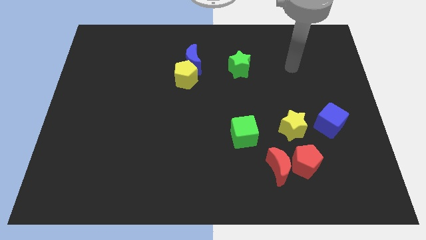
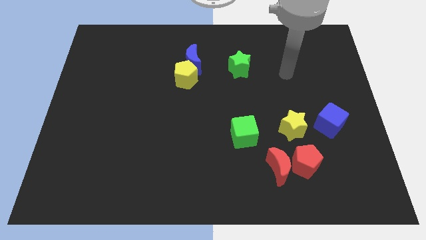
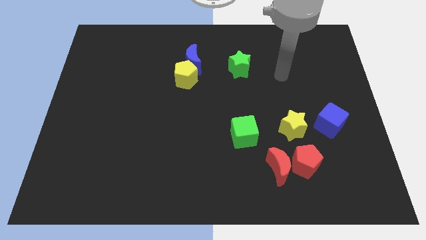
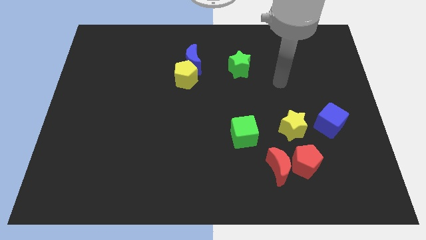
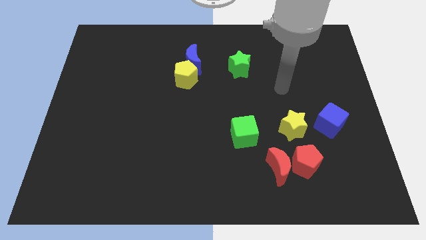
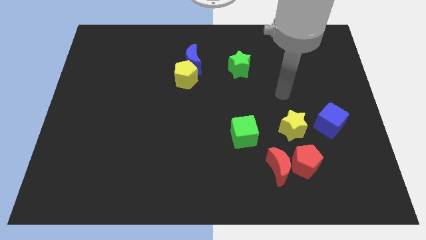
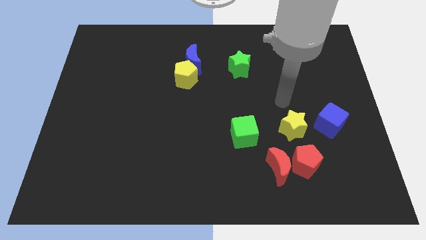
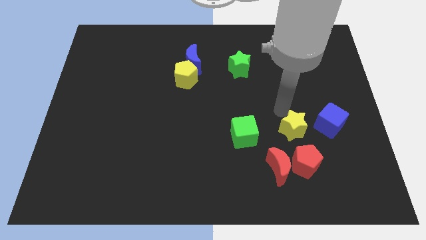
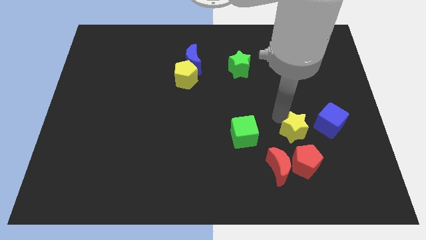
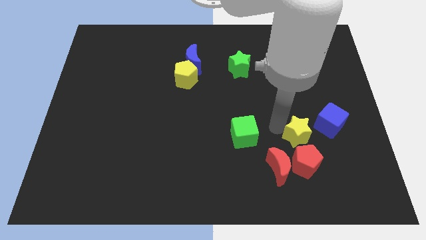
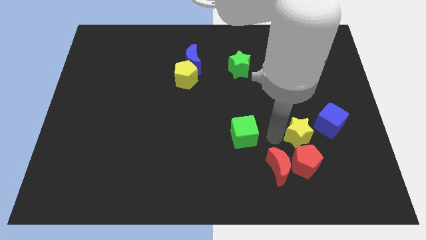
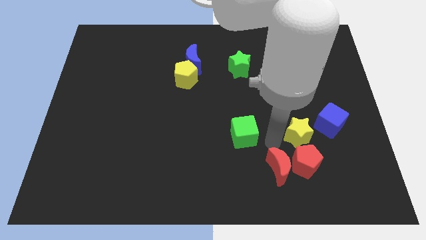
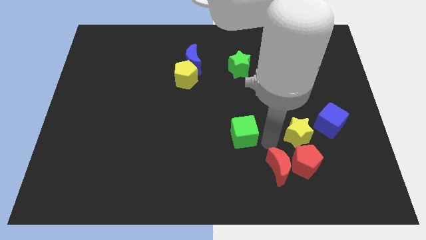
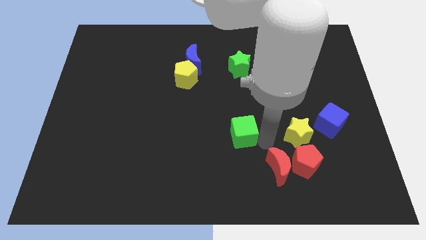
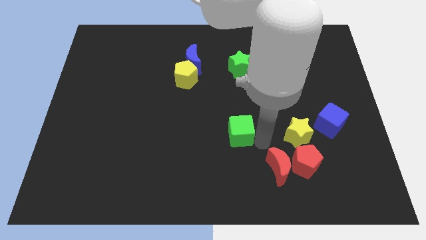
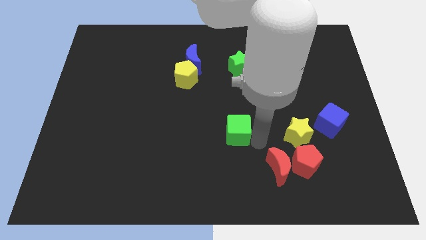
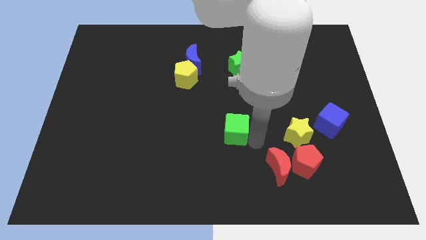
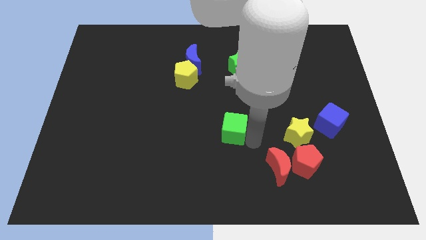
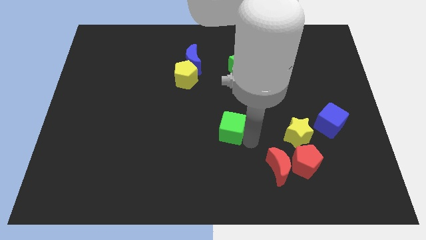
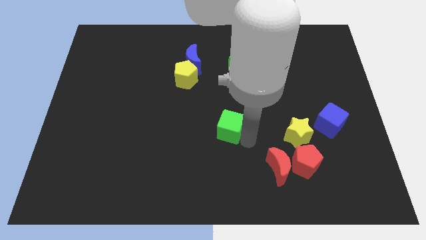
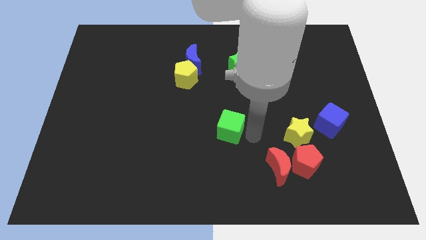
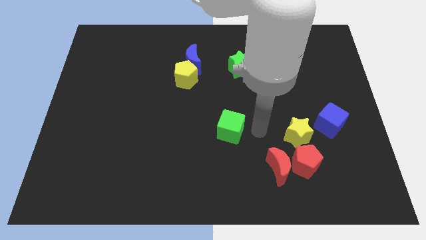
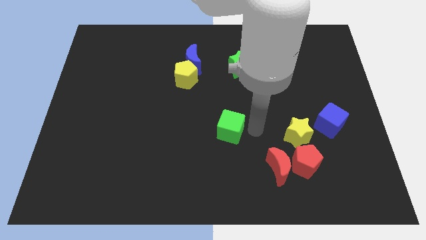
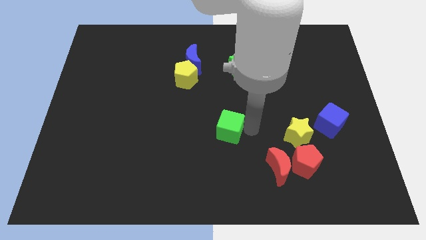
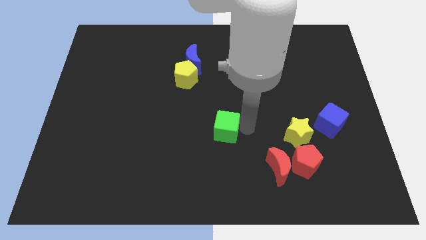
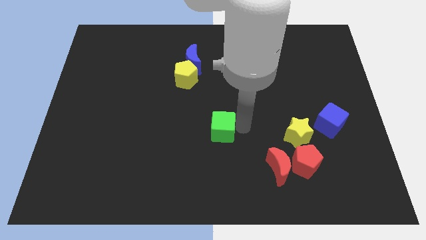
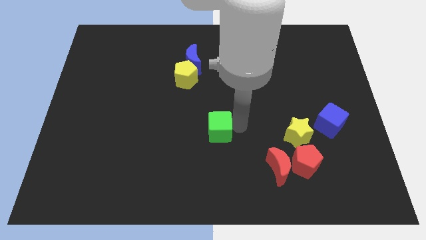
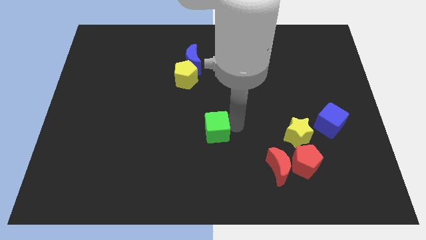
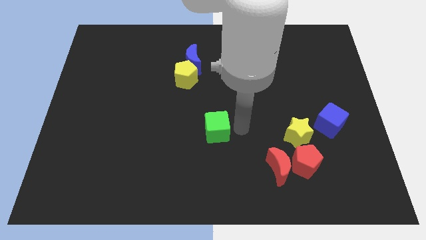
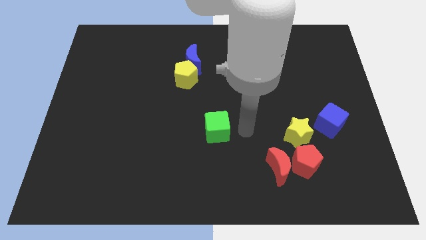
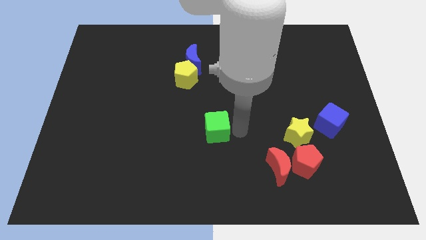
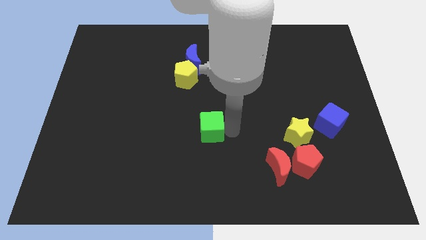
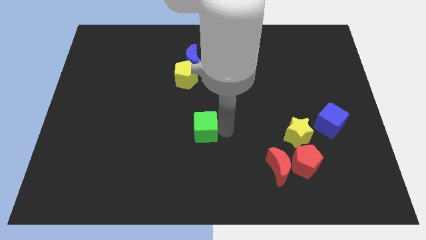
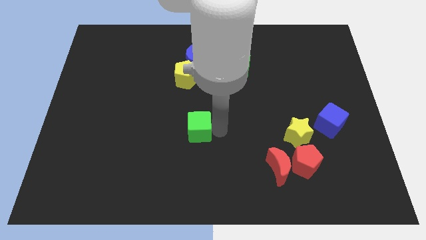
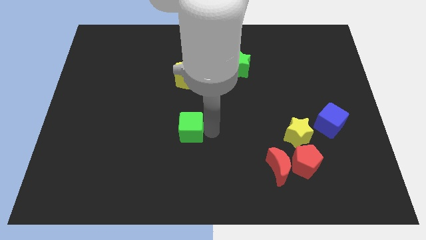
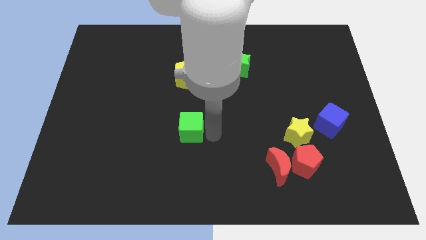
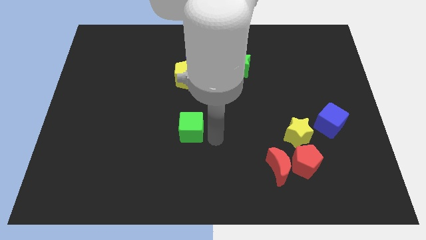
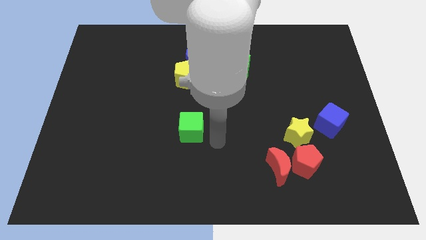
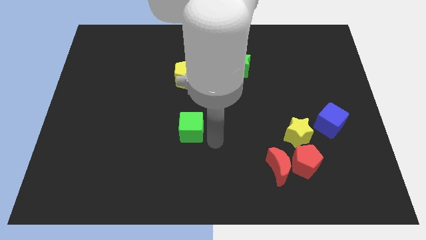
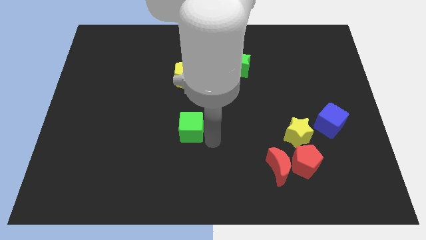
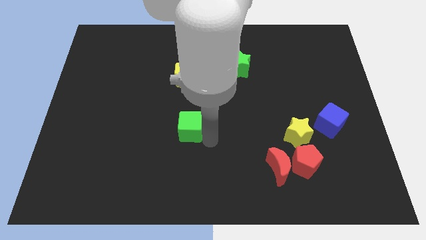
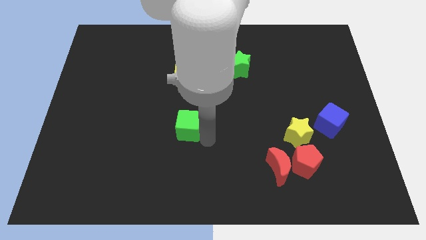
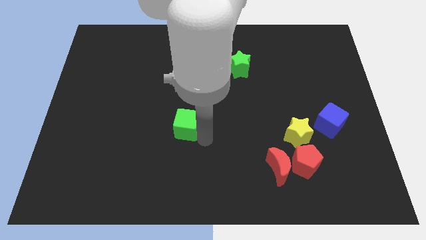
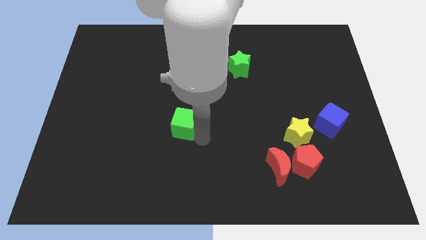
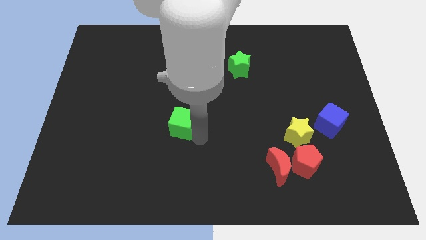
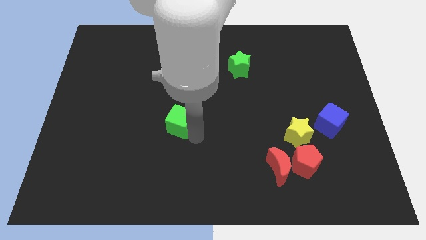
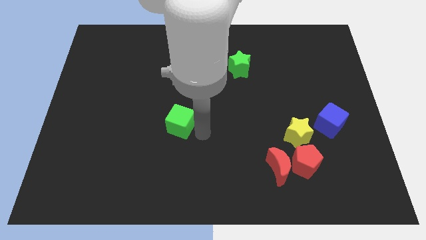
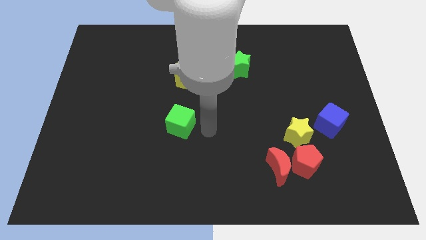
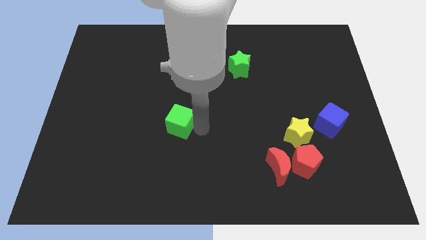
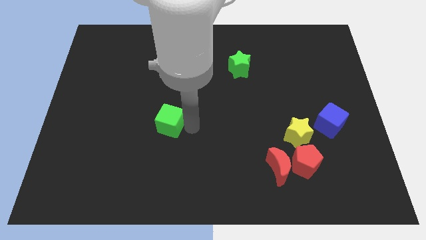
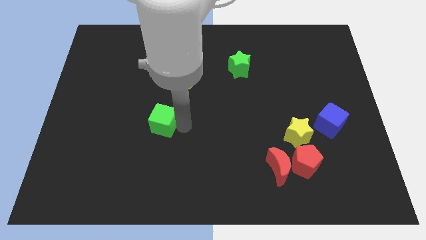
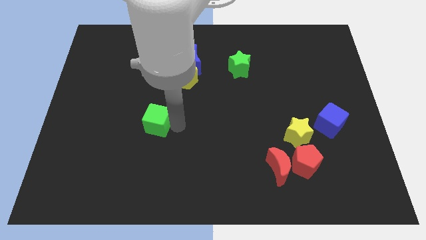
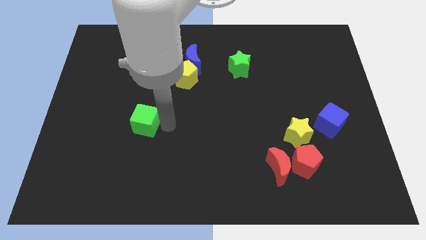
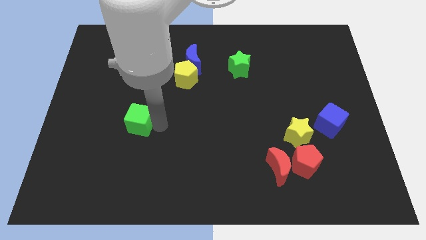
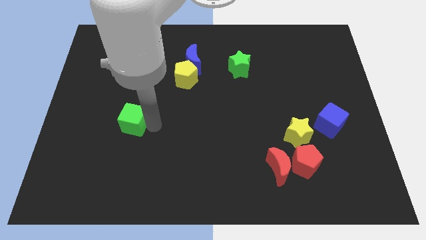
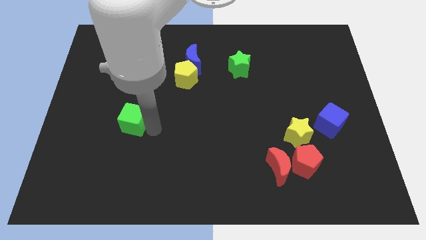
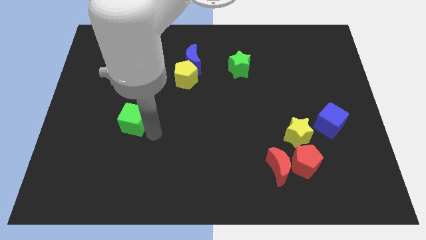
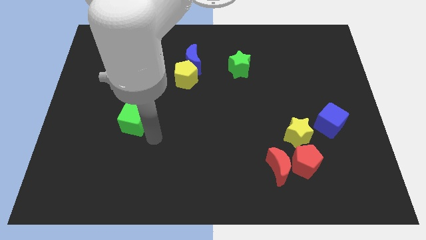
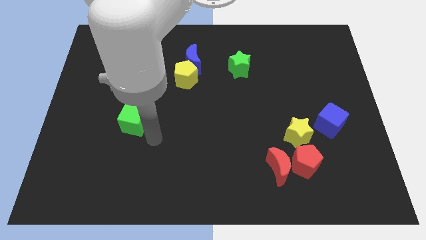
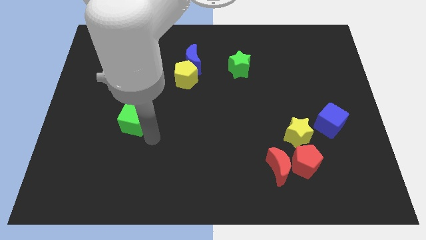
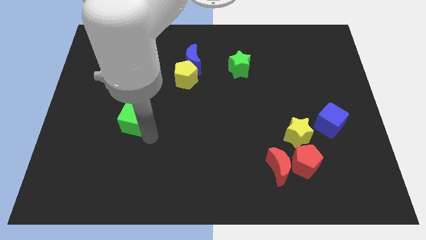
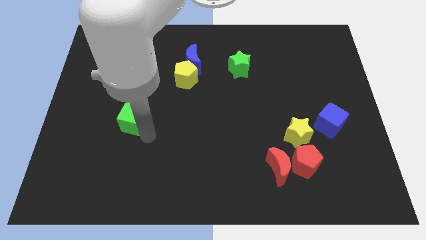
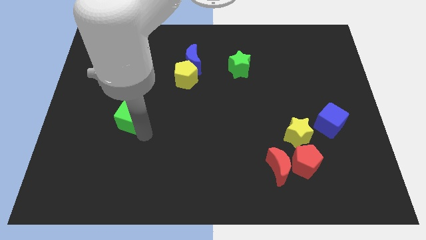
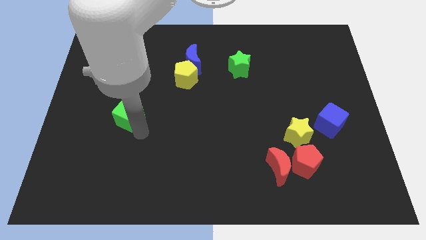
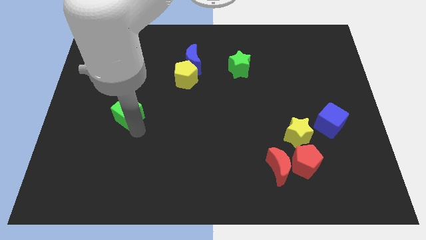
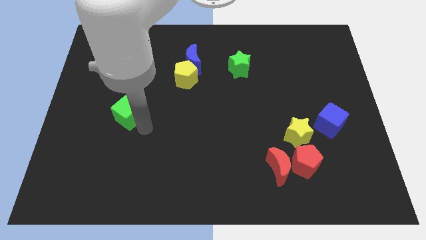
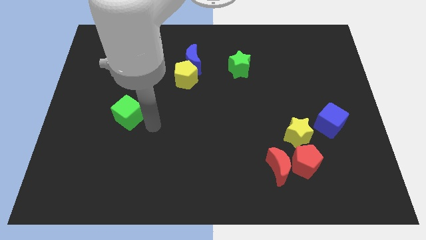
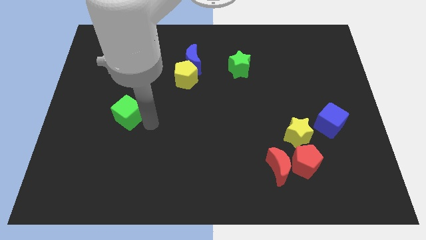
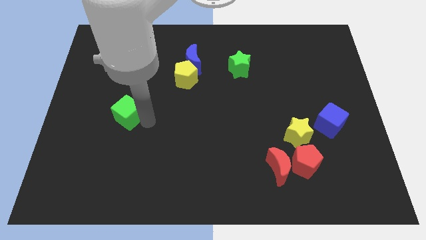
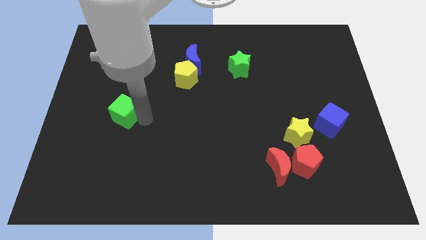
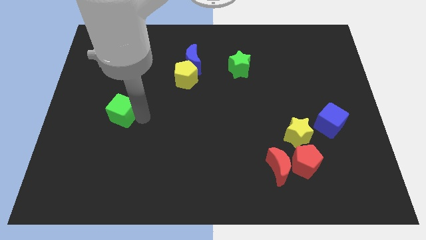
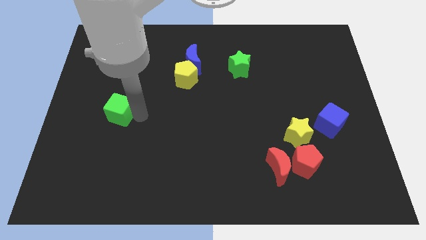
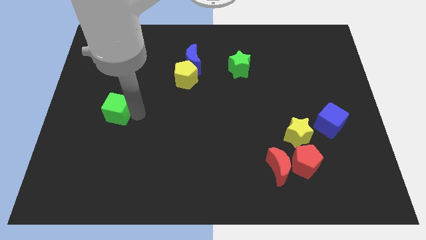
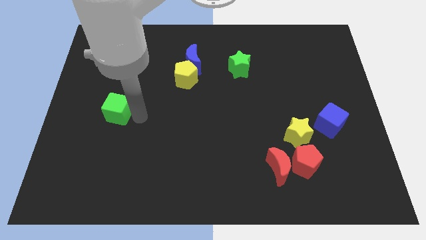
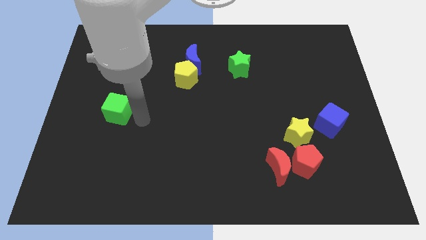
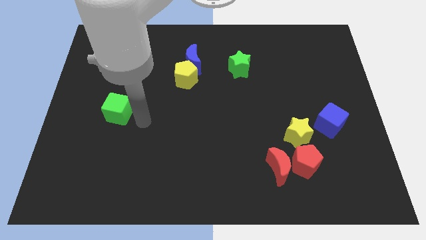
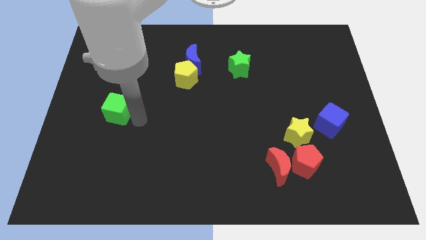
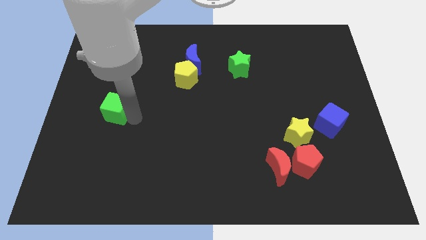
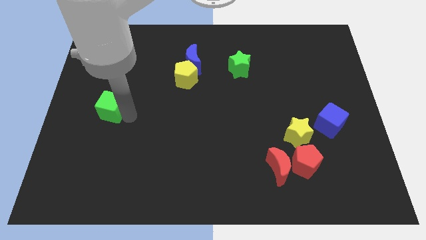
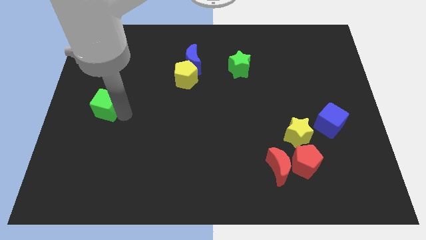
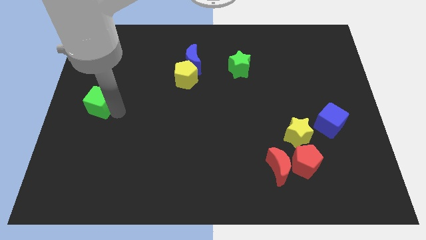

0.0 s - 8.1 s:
push the green cube to the center left
